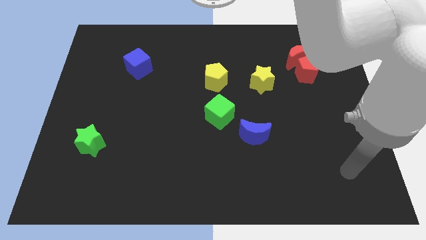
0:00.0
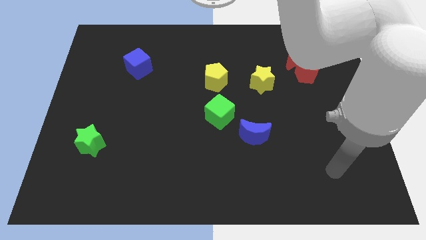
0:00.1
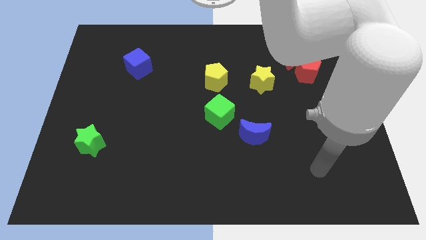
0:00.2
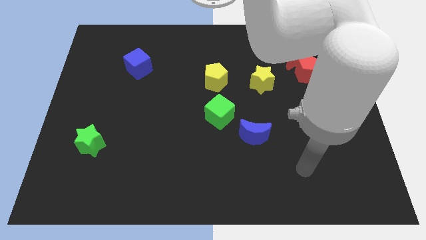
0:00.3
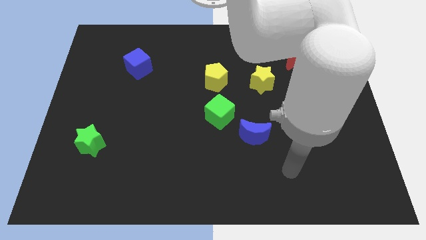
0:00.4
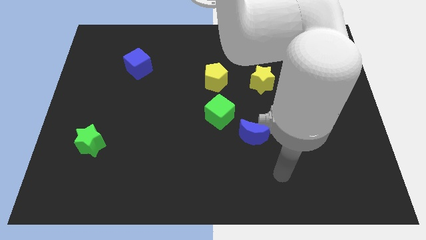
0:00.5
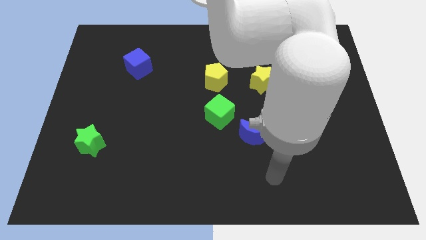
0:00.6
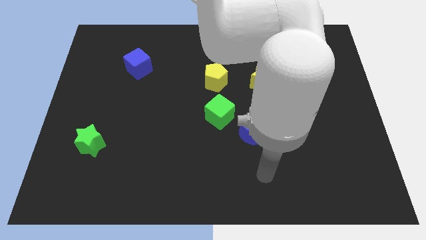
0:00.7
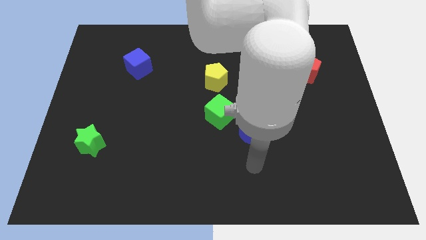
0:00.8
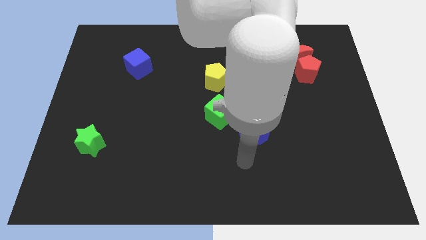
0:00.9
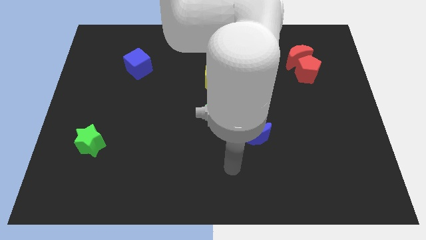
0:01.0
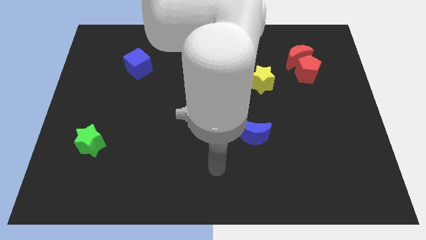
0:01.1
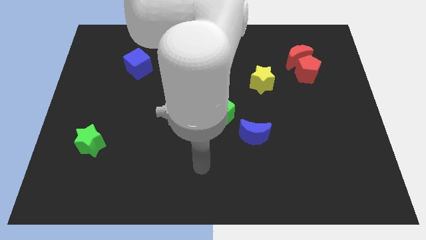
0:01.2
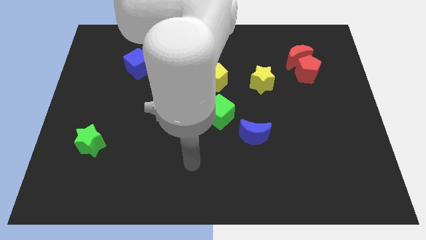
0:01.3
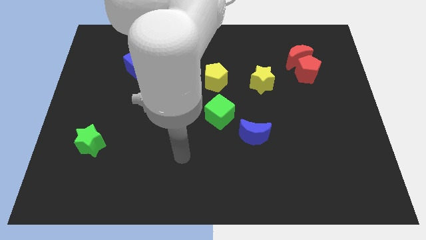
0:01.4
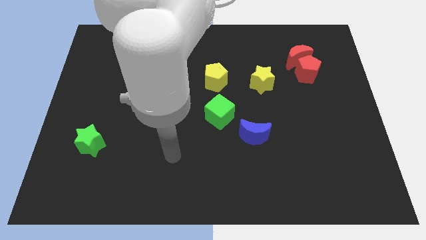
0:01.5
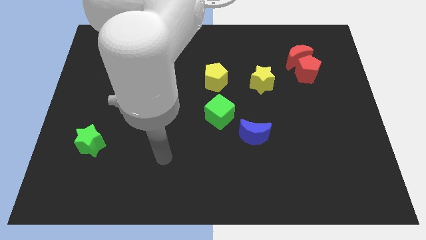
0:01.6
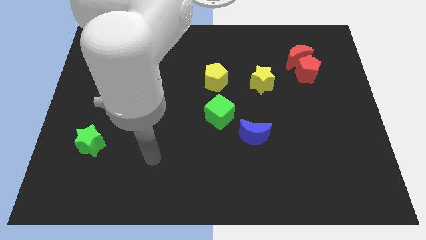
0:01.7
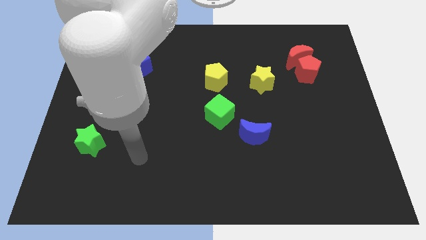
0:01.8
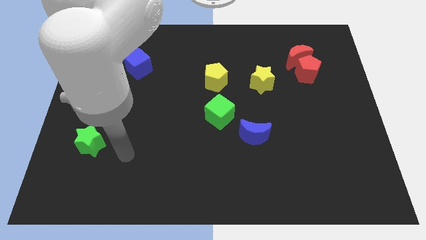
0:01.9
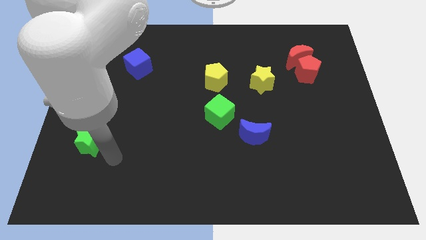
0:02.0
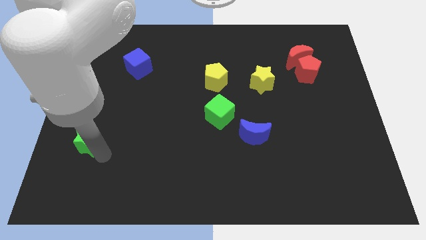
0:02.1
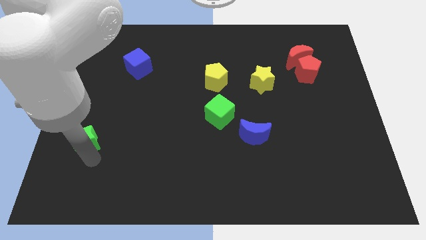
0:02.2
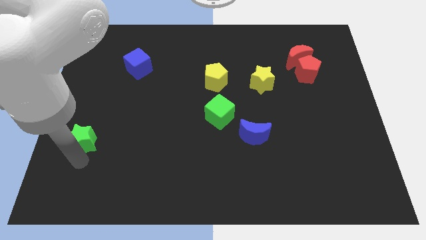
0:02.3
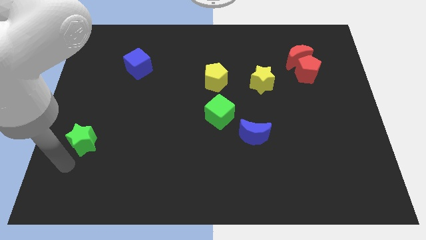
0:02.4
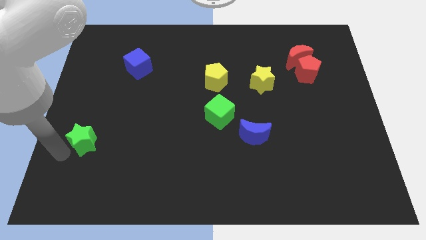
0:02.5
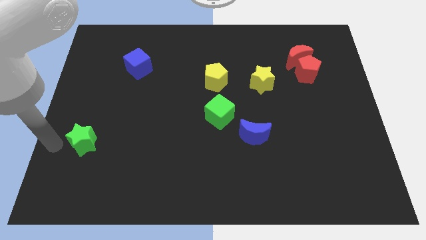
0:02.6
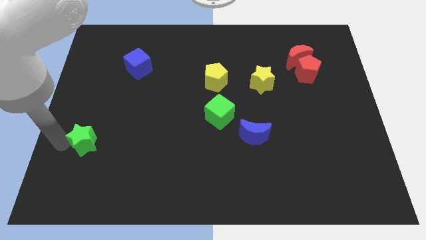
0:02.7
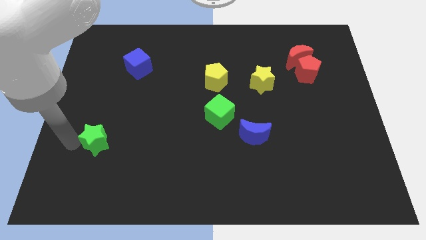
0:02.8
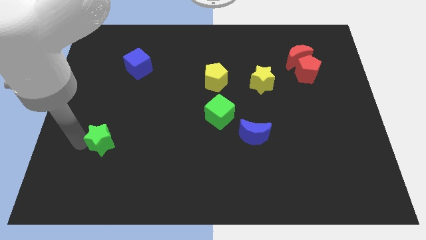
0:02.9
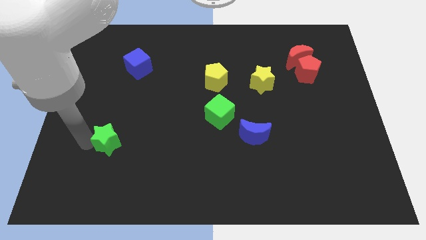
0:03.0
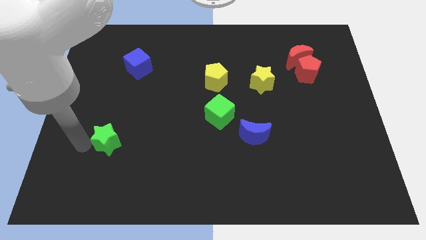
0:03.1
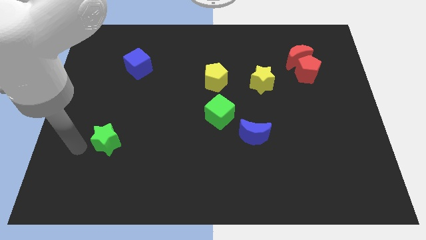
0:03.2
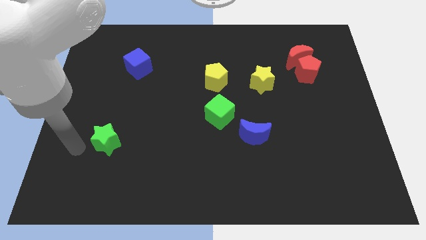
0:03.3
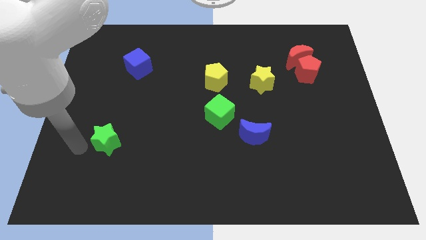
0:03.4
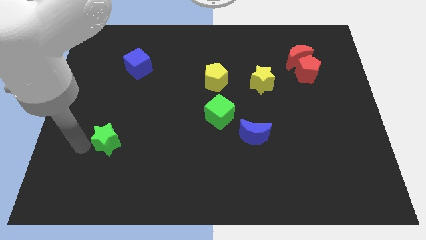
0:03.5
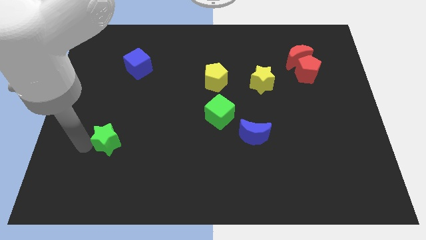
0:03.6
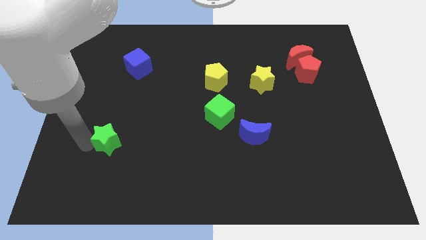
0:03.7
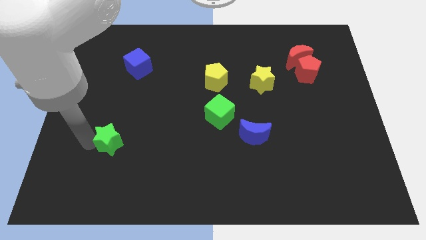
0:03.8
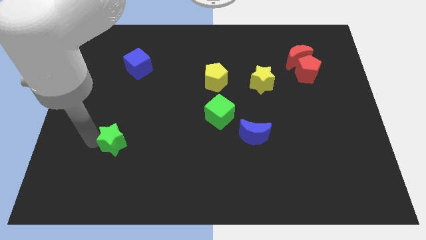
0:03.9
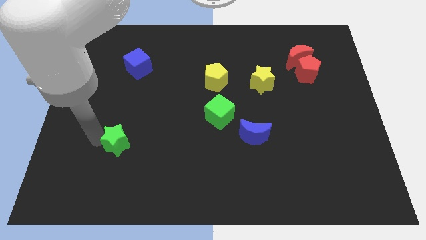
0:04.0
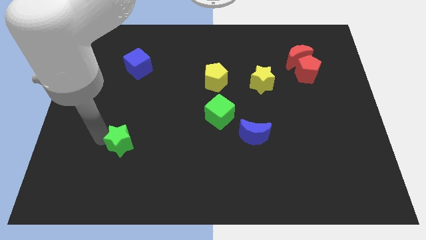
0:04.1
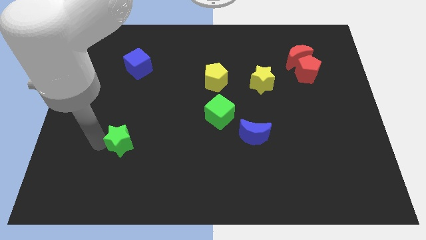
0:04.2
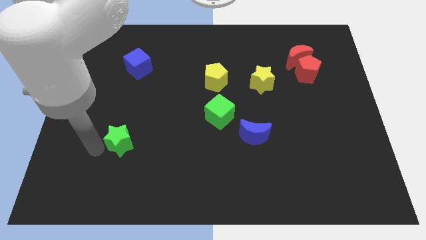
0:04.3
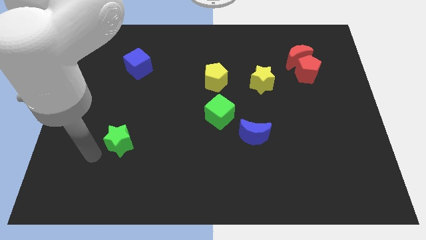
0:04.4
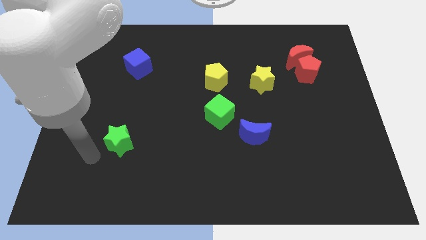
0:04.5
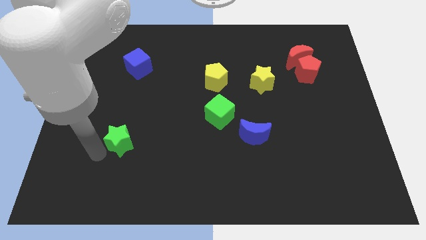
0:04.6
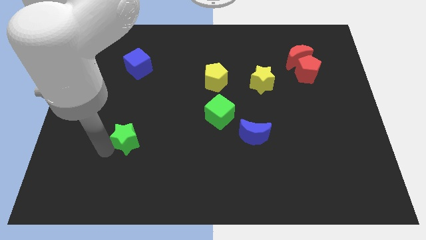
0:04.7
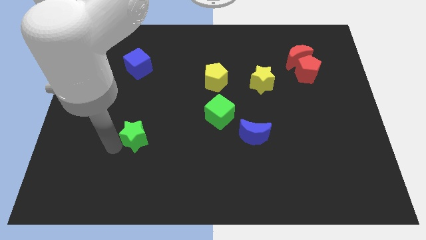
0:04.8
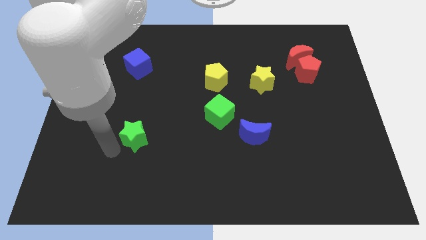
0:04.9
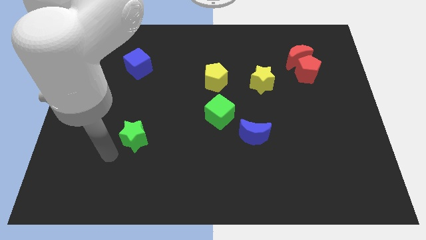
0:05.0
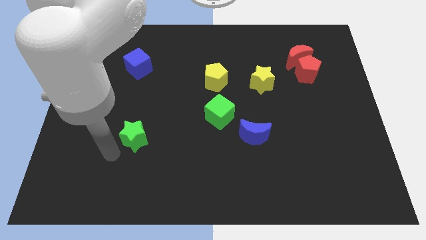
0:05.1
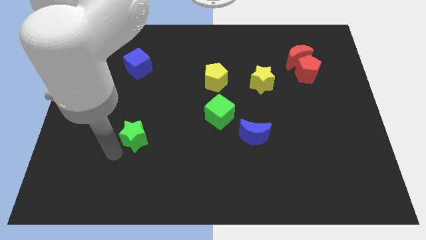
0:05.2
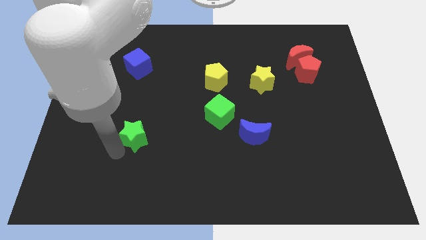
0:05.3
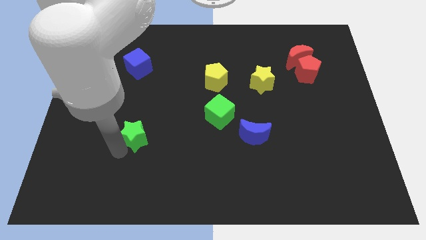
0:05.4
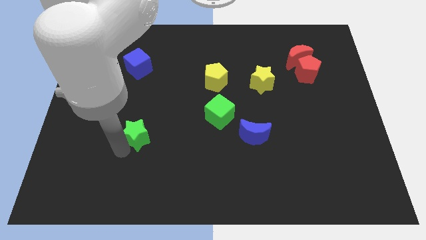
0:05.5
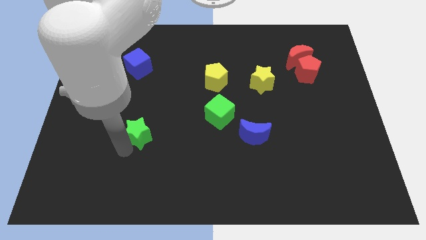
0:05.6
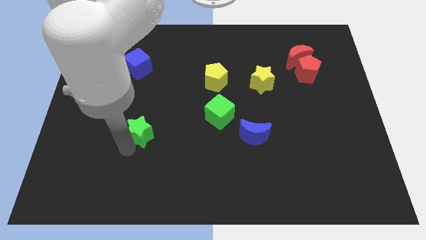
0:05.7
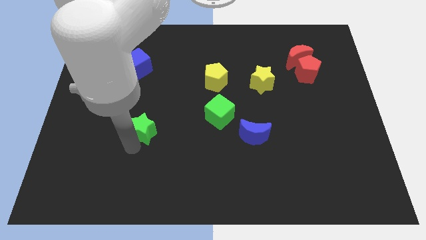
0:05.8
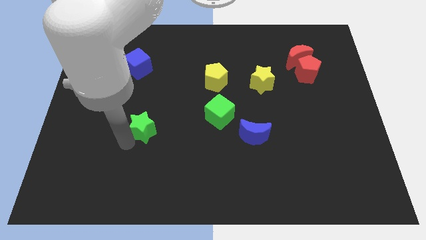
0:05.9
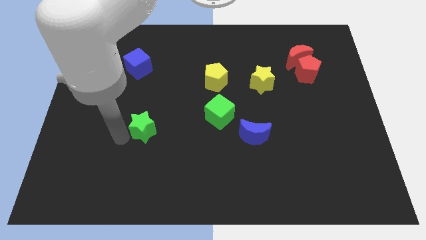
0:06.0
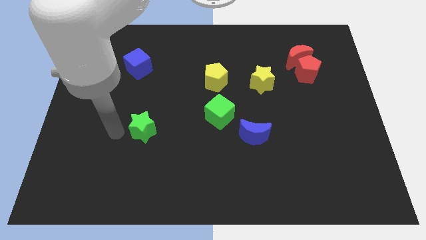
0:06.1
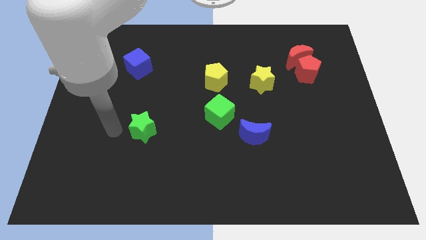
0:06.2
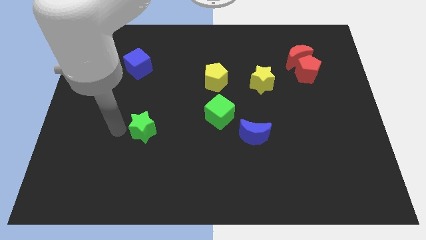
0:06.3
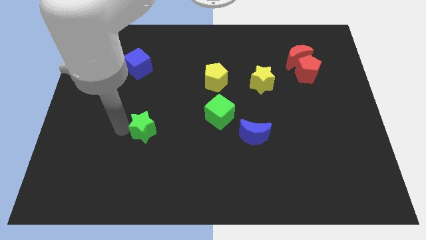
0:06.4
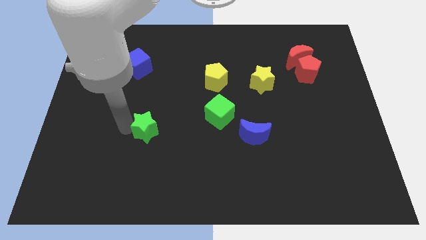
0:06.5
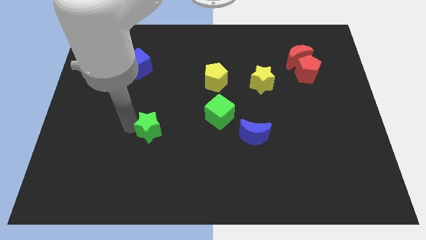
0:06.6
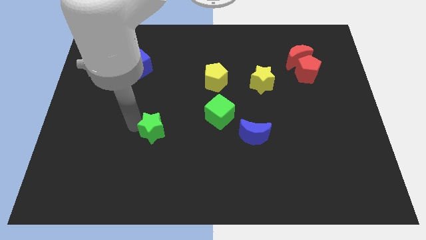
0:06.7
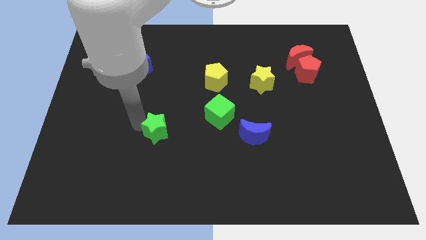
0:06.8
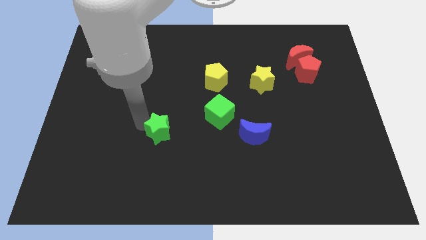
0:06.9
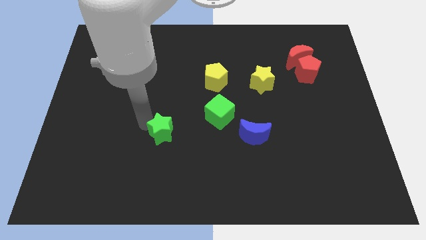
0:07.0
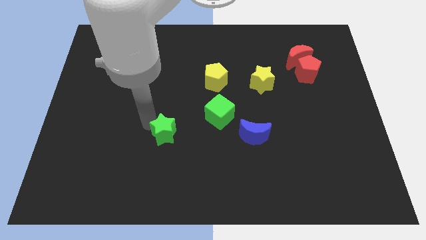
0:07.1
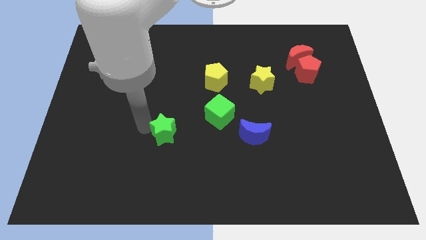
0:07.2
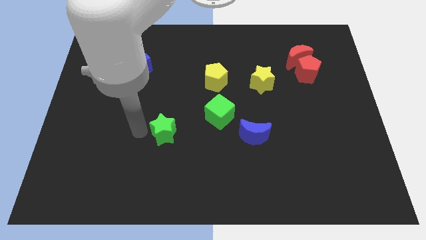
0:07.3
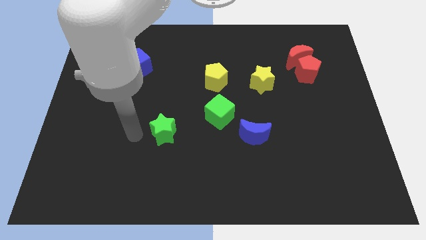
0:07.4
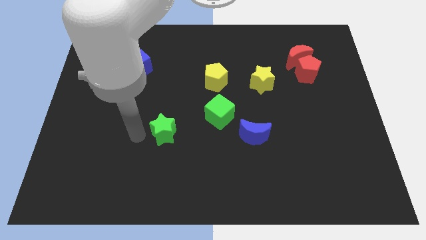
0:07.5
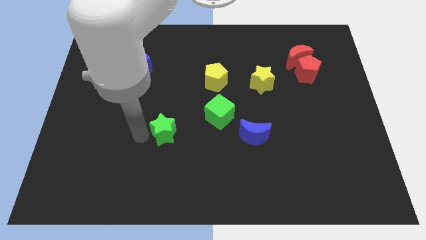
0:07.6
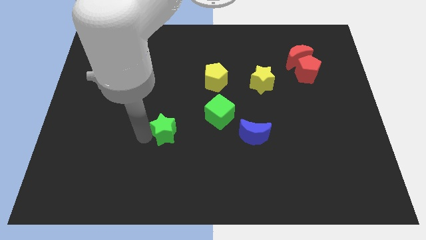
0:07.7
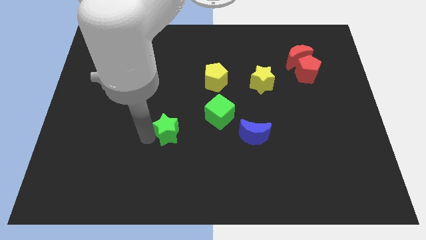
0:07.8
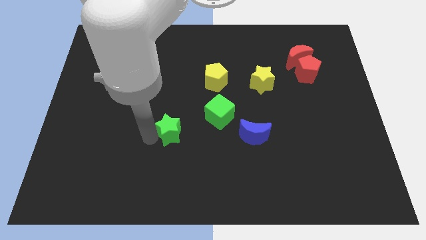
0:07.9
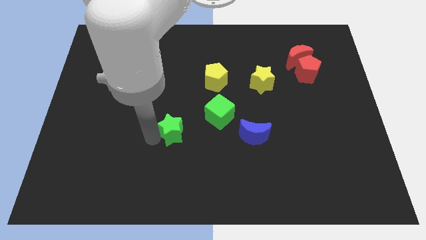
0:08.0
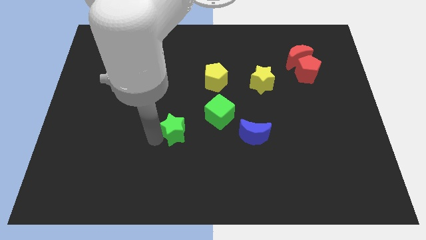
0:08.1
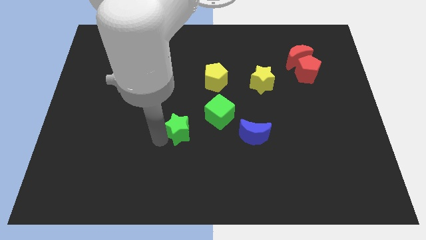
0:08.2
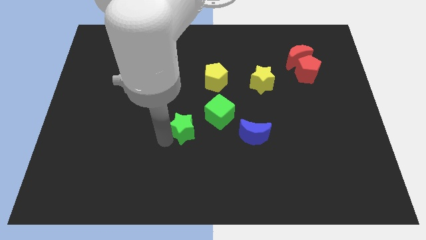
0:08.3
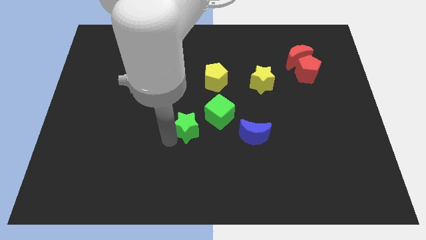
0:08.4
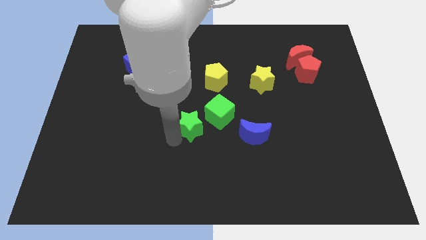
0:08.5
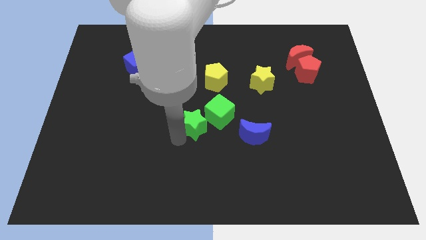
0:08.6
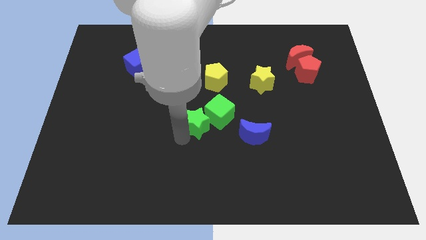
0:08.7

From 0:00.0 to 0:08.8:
move the green star close to the green cube
